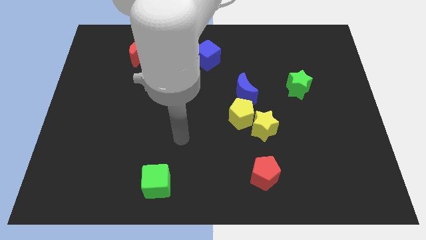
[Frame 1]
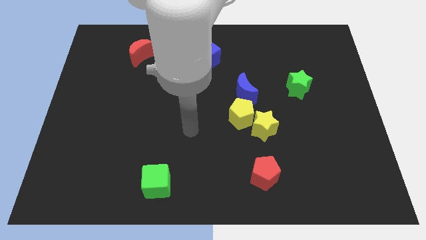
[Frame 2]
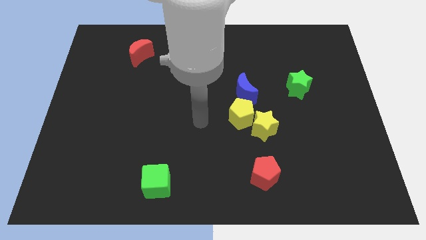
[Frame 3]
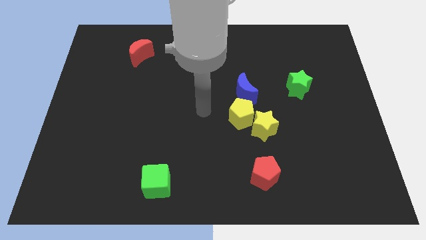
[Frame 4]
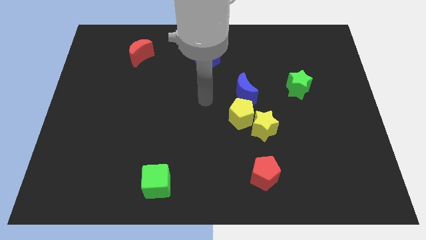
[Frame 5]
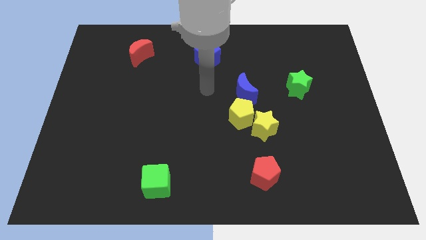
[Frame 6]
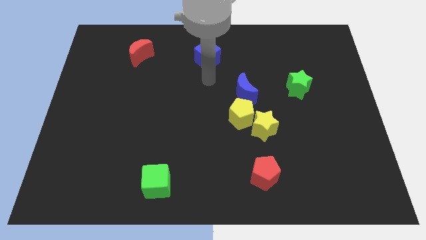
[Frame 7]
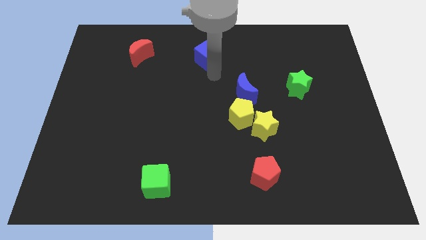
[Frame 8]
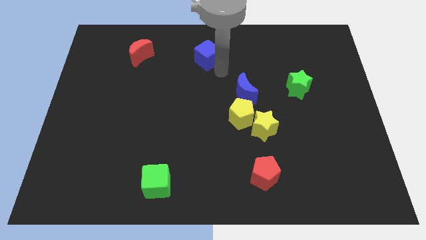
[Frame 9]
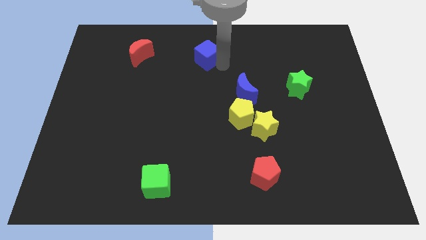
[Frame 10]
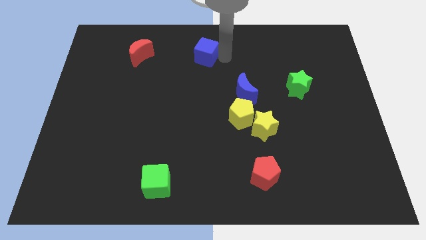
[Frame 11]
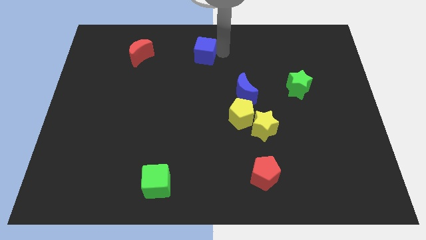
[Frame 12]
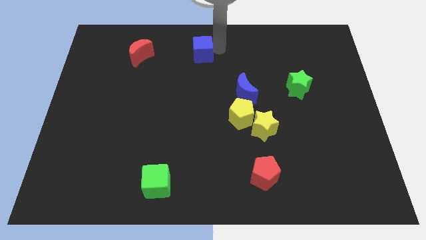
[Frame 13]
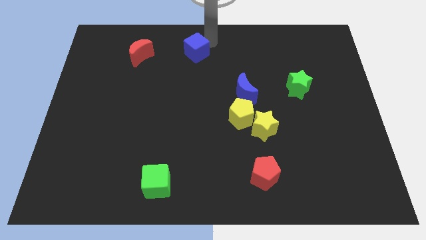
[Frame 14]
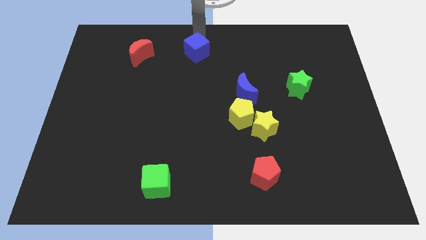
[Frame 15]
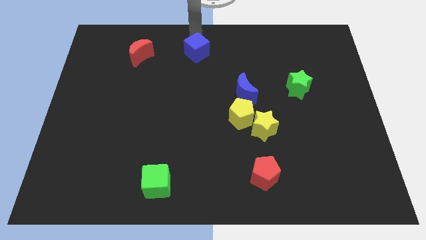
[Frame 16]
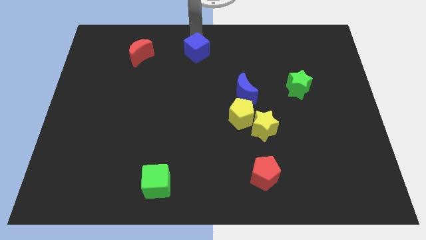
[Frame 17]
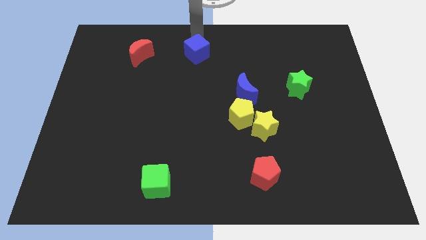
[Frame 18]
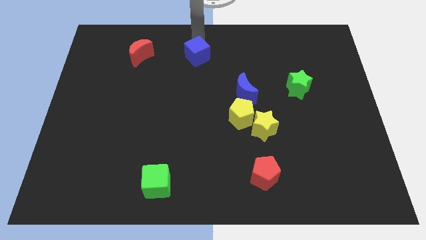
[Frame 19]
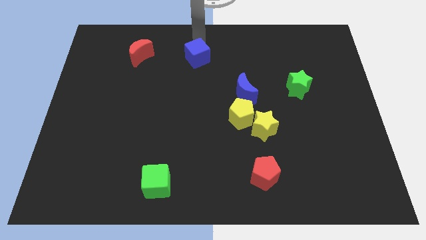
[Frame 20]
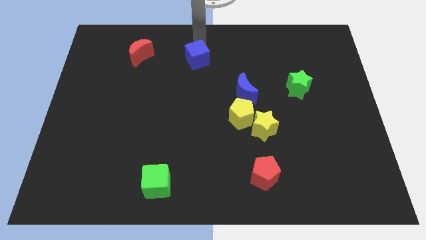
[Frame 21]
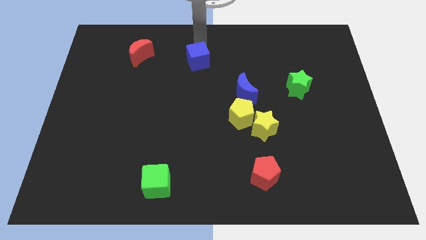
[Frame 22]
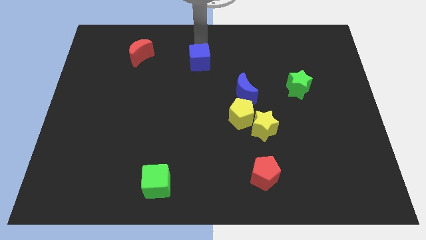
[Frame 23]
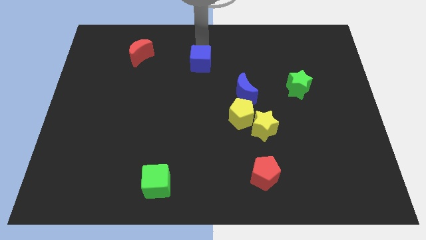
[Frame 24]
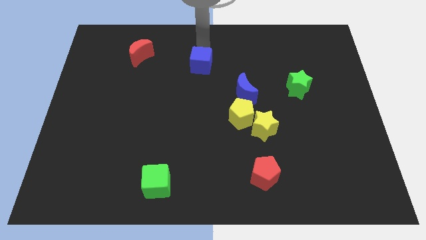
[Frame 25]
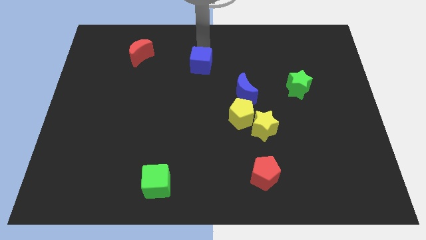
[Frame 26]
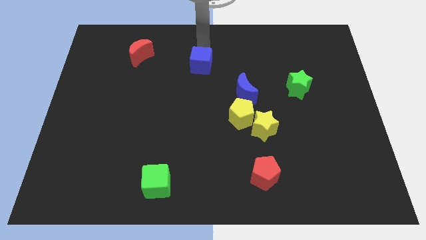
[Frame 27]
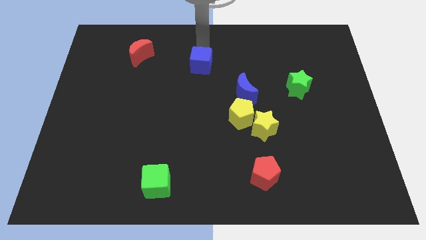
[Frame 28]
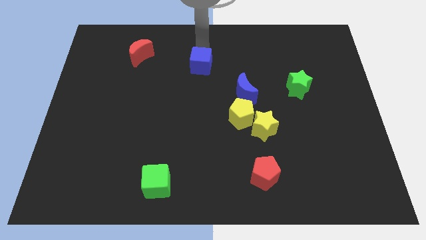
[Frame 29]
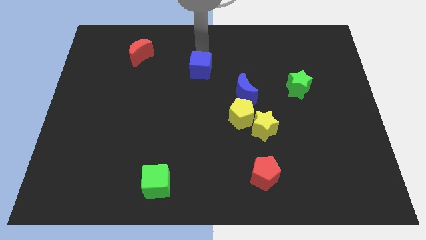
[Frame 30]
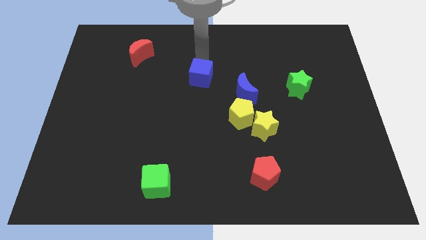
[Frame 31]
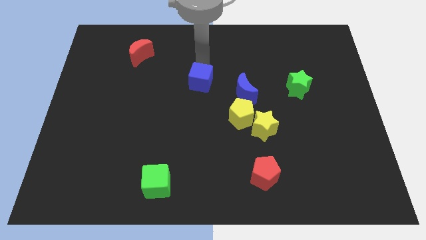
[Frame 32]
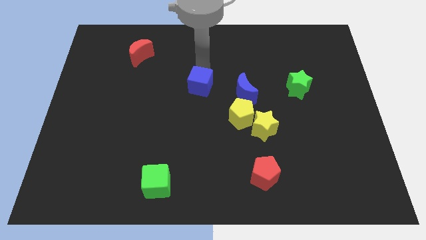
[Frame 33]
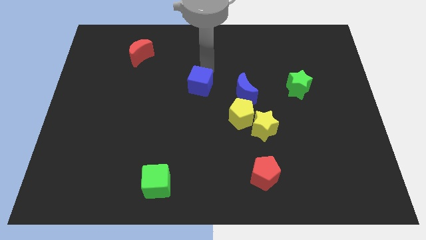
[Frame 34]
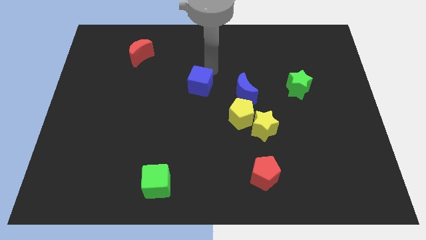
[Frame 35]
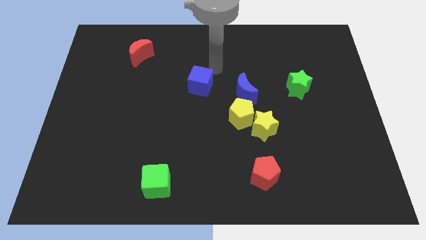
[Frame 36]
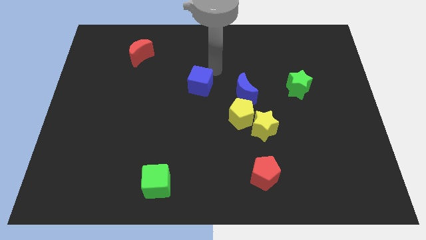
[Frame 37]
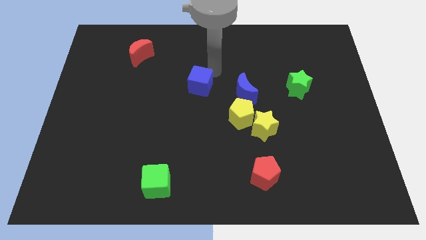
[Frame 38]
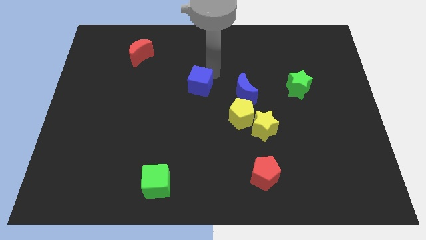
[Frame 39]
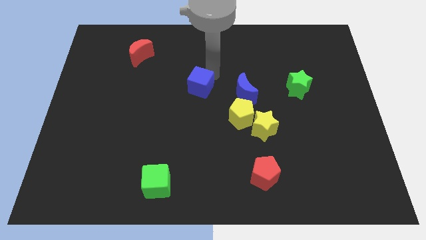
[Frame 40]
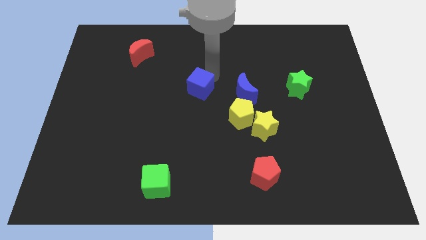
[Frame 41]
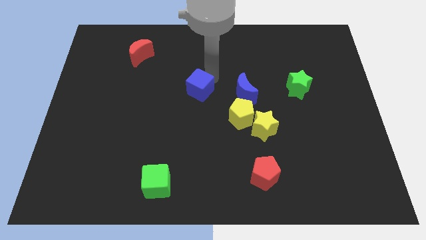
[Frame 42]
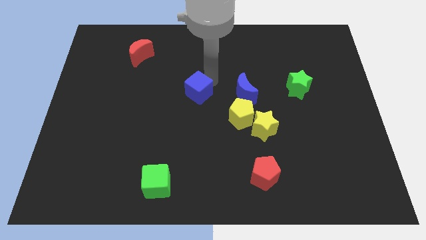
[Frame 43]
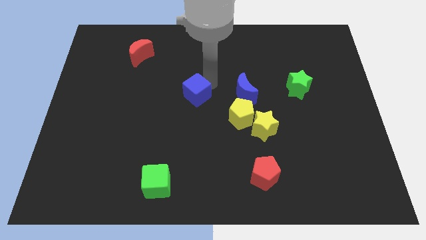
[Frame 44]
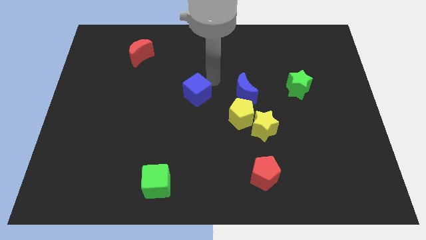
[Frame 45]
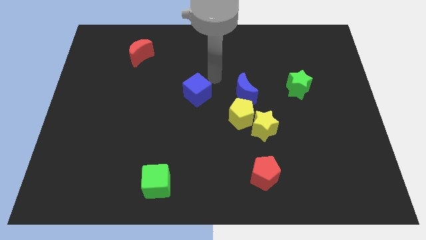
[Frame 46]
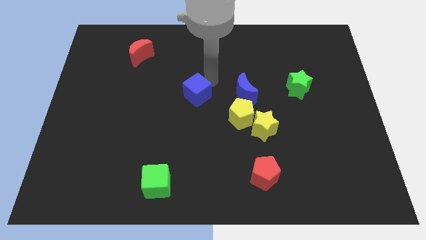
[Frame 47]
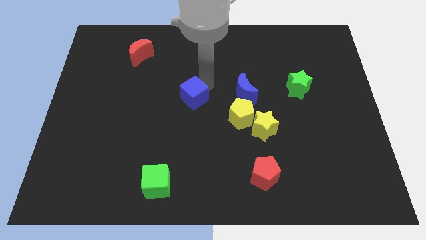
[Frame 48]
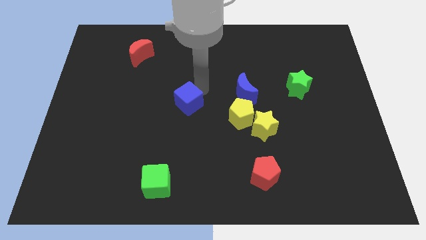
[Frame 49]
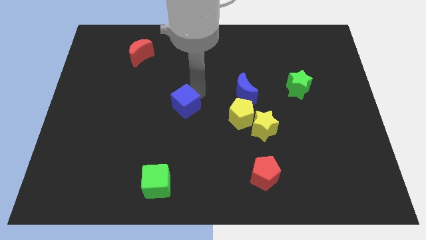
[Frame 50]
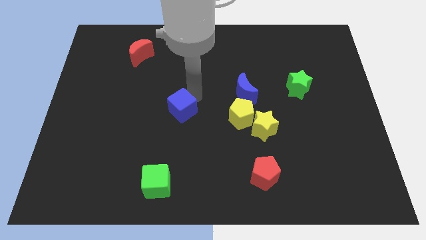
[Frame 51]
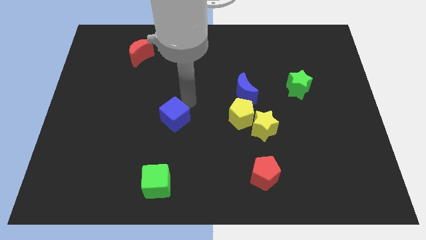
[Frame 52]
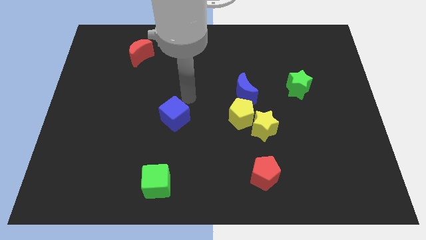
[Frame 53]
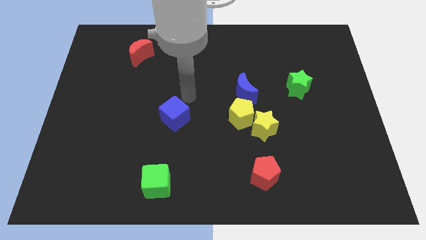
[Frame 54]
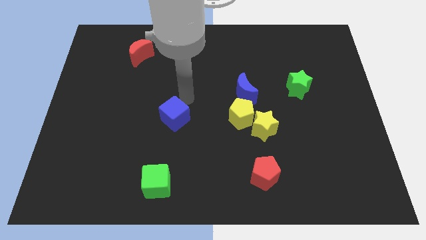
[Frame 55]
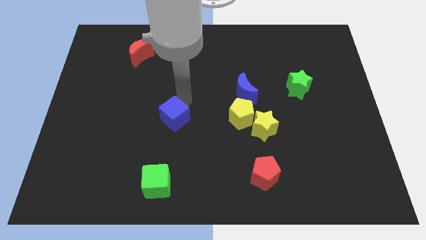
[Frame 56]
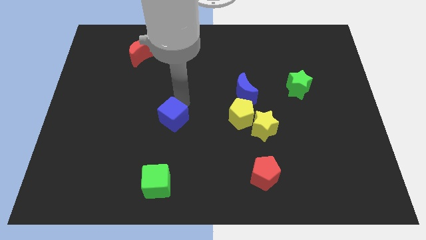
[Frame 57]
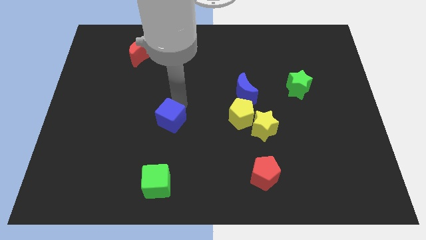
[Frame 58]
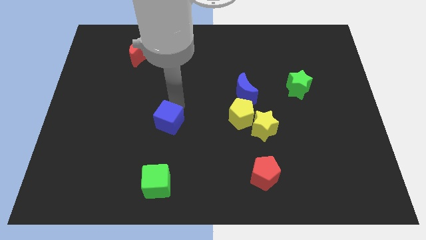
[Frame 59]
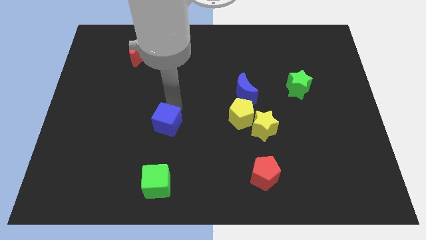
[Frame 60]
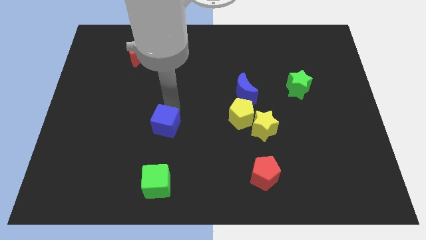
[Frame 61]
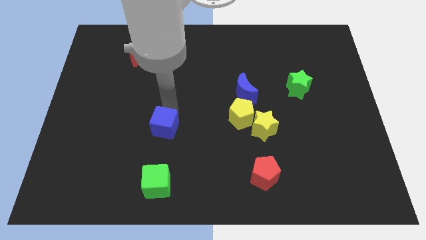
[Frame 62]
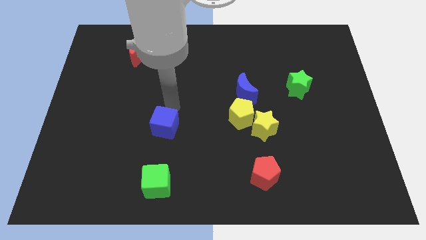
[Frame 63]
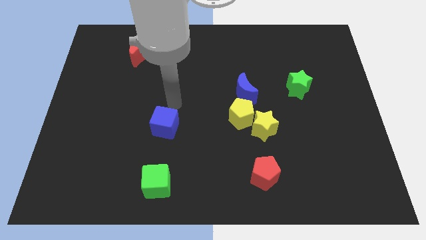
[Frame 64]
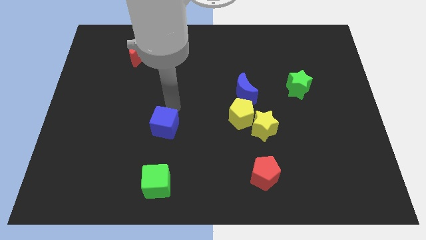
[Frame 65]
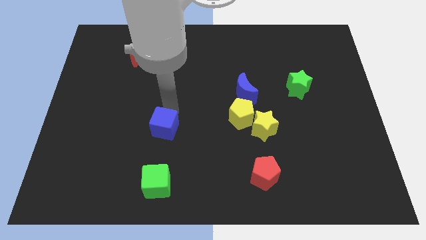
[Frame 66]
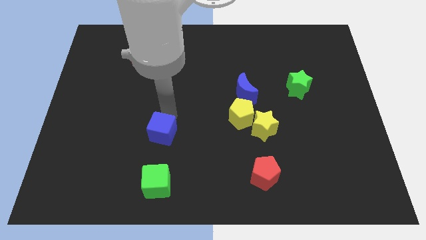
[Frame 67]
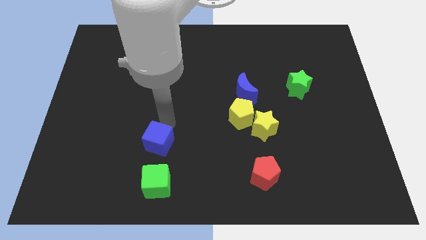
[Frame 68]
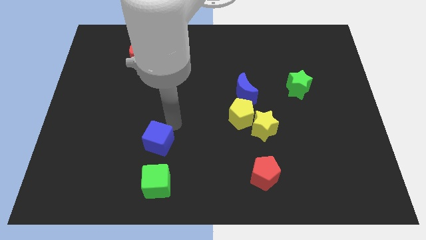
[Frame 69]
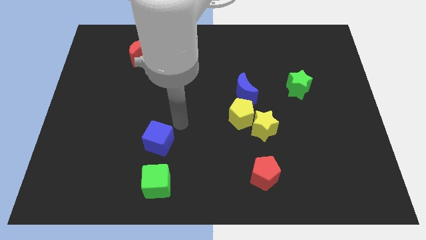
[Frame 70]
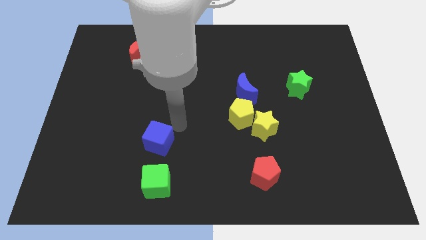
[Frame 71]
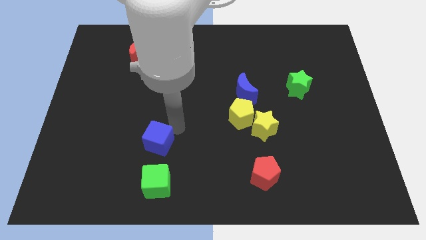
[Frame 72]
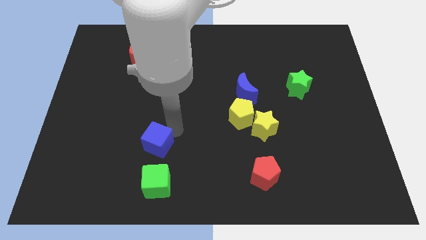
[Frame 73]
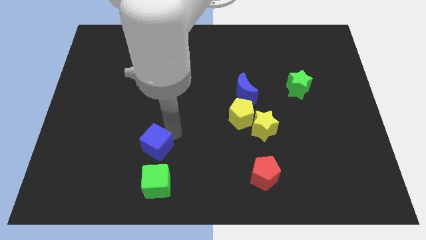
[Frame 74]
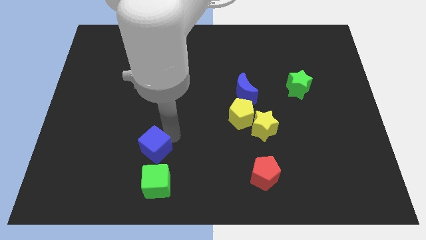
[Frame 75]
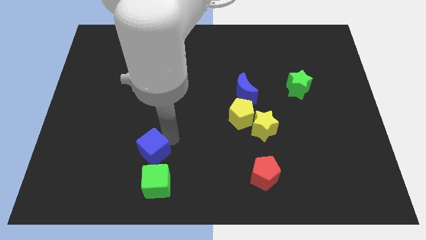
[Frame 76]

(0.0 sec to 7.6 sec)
move the blue cube to the top left of the green cube
